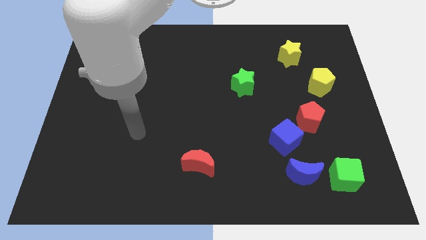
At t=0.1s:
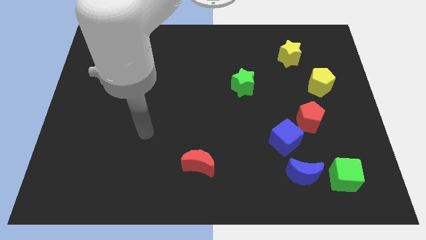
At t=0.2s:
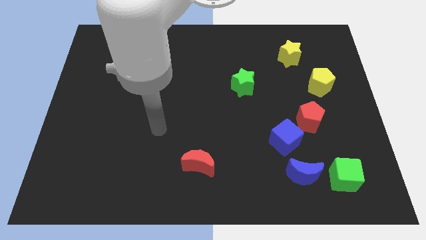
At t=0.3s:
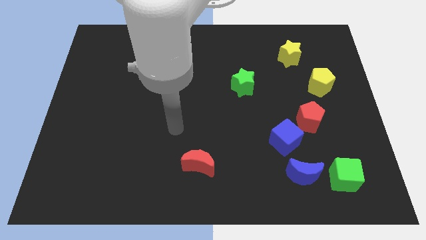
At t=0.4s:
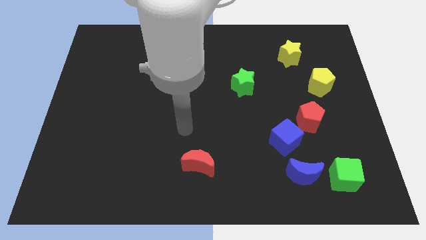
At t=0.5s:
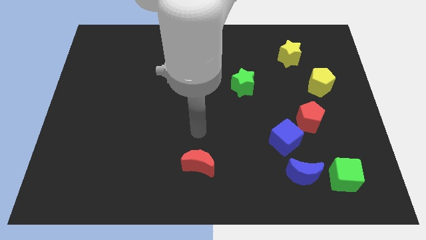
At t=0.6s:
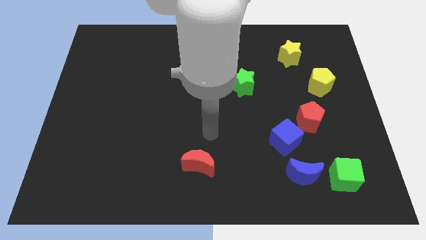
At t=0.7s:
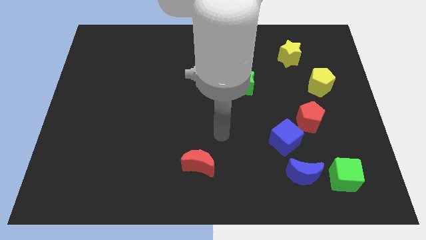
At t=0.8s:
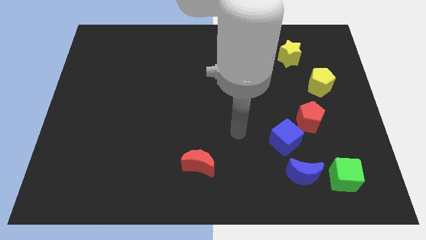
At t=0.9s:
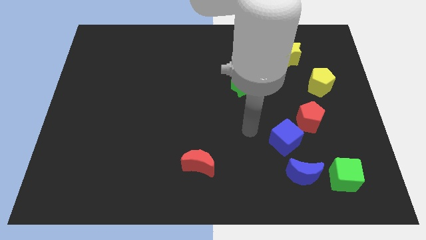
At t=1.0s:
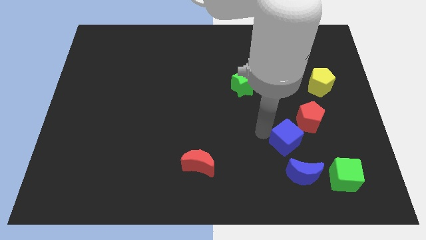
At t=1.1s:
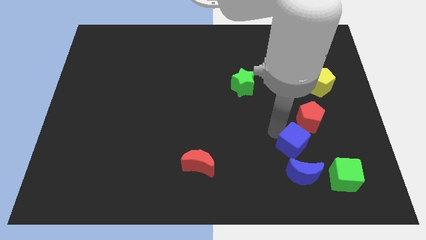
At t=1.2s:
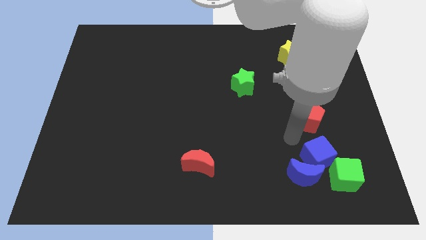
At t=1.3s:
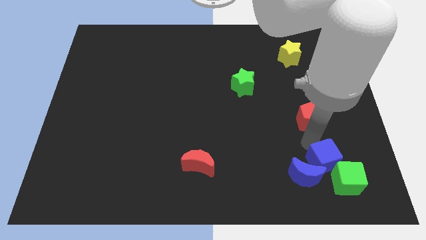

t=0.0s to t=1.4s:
separate the red pentagon from the blue cube

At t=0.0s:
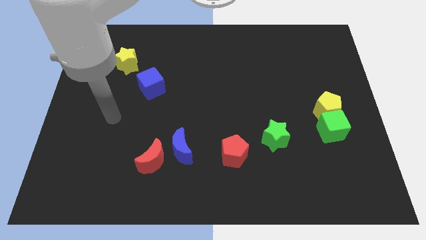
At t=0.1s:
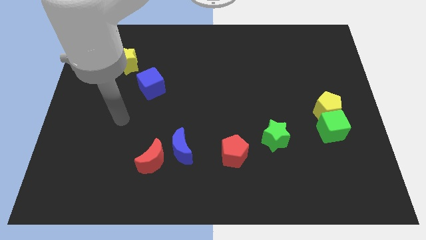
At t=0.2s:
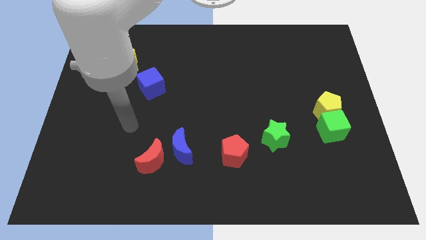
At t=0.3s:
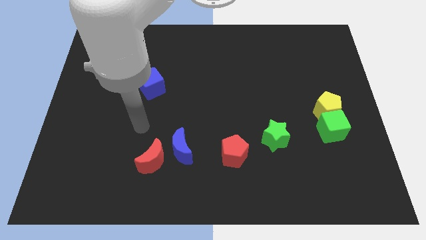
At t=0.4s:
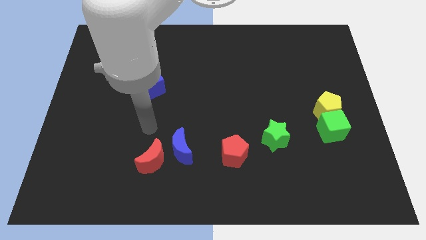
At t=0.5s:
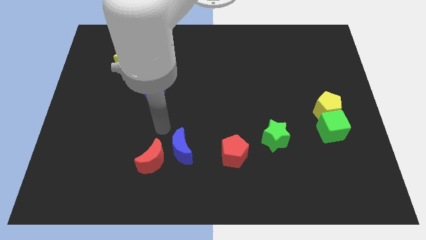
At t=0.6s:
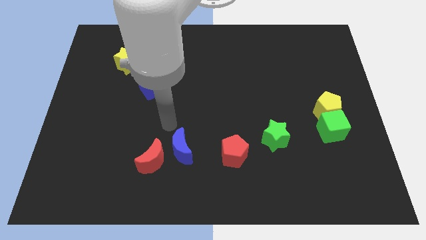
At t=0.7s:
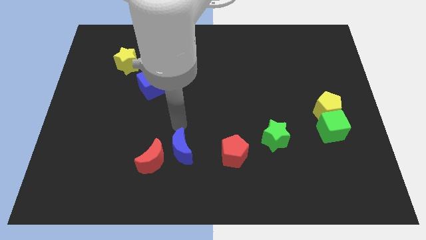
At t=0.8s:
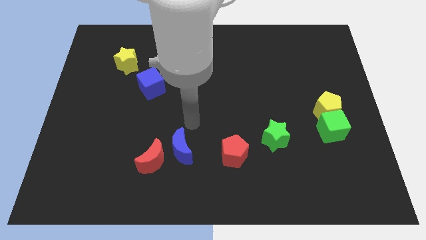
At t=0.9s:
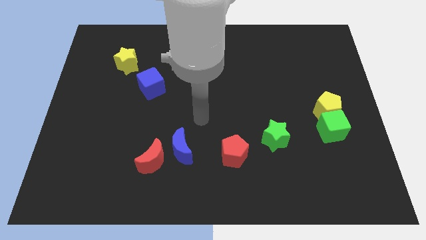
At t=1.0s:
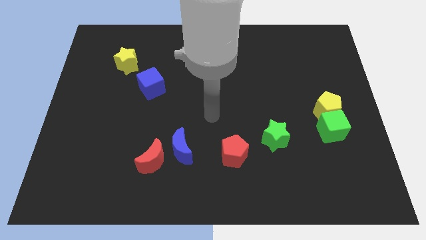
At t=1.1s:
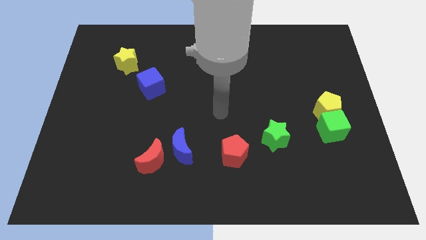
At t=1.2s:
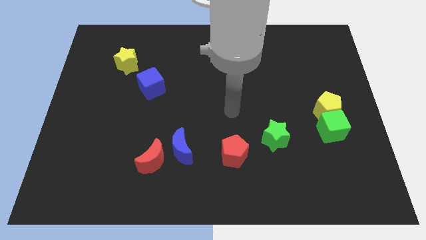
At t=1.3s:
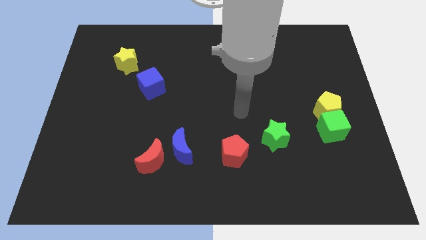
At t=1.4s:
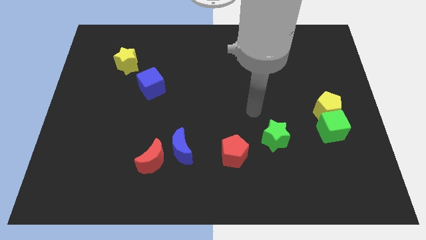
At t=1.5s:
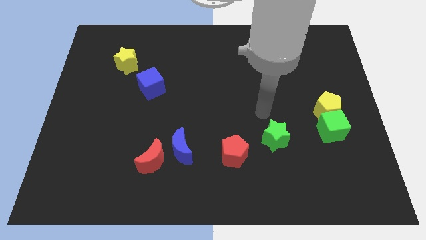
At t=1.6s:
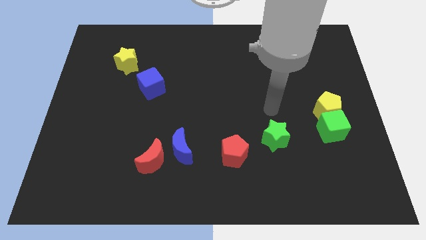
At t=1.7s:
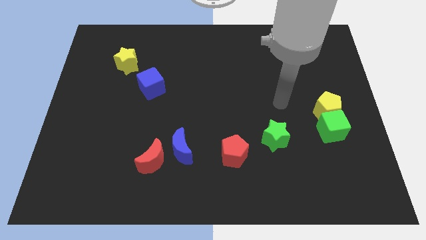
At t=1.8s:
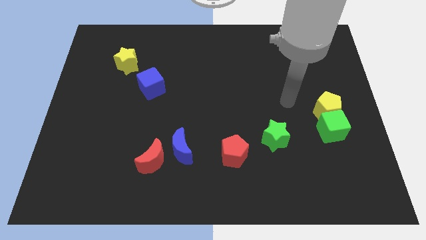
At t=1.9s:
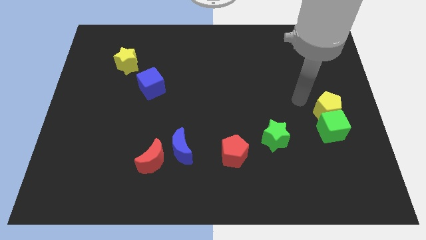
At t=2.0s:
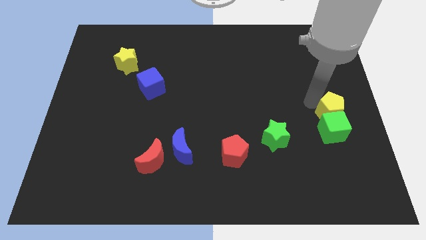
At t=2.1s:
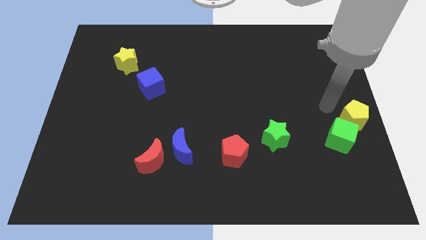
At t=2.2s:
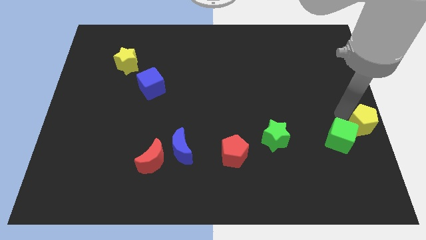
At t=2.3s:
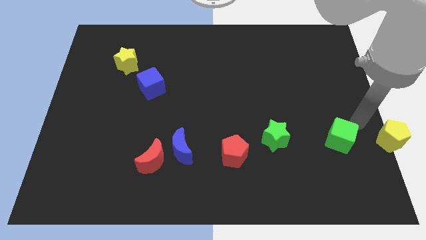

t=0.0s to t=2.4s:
move the green cube away from the yellow pentagon

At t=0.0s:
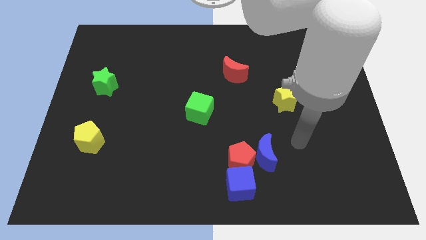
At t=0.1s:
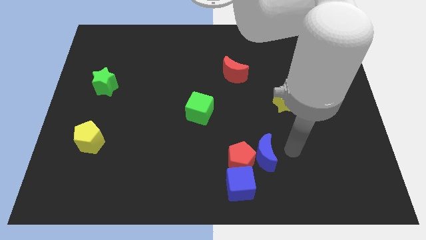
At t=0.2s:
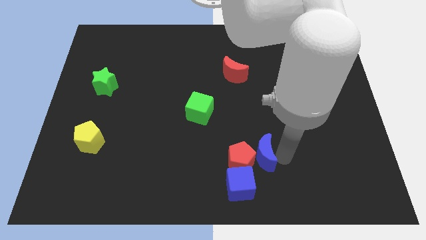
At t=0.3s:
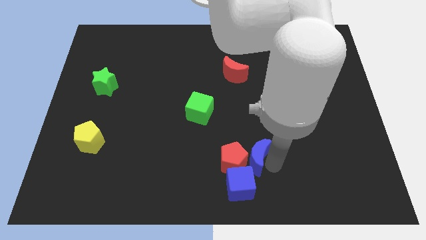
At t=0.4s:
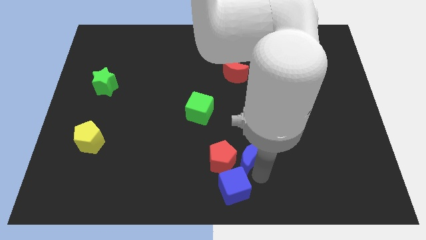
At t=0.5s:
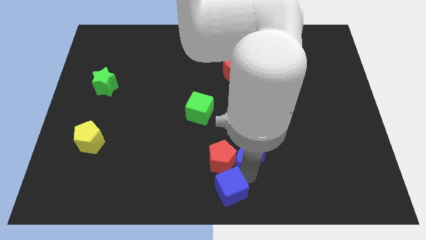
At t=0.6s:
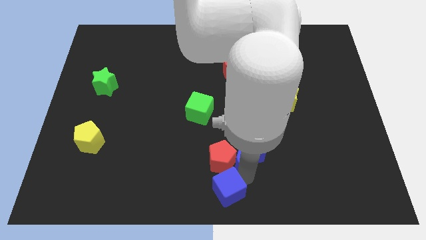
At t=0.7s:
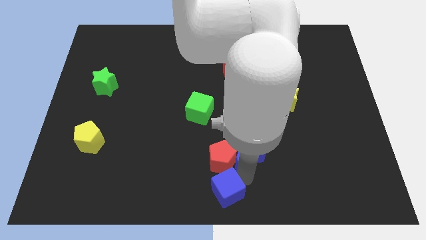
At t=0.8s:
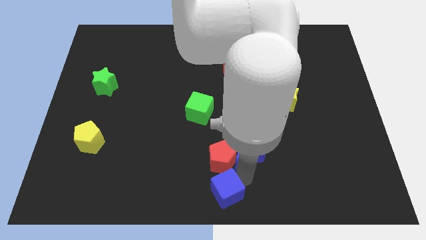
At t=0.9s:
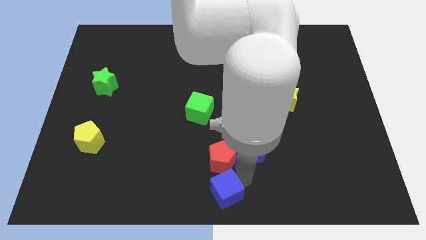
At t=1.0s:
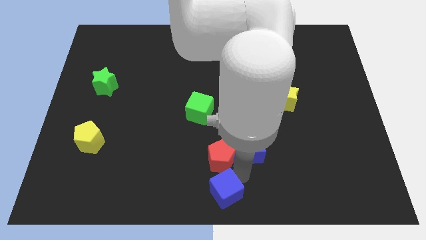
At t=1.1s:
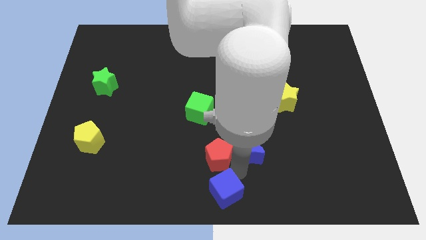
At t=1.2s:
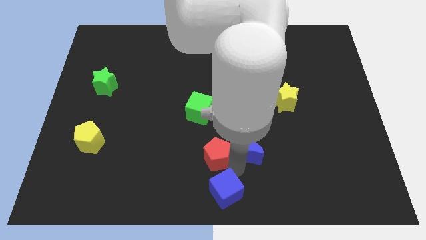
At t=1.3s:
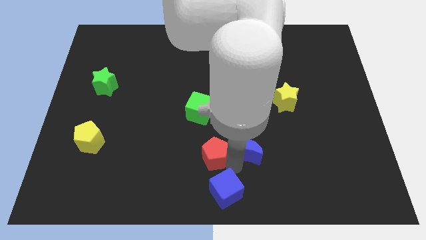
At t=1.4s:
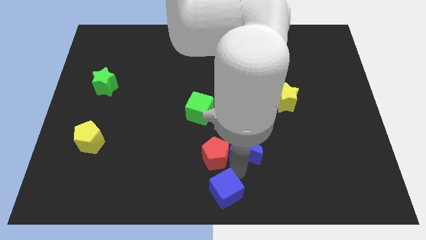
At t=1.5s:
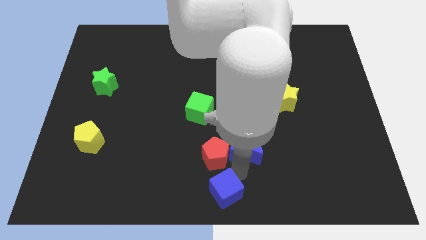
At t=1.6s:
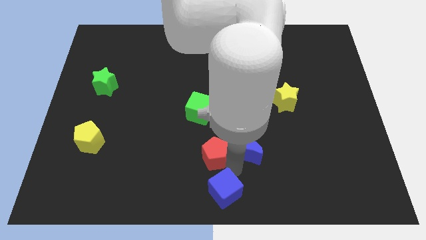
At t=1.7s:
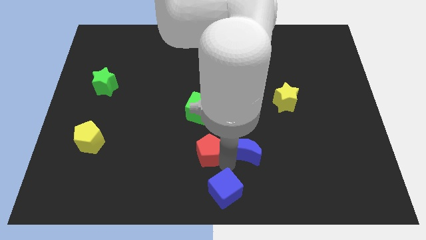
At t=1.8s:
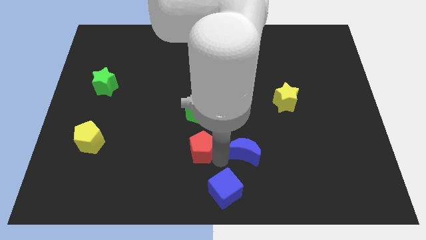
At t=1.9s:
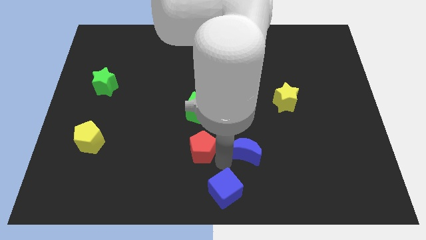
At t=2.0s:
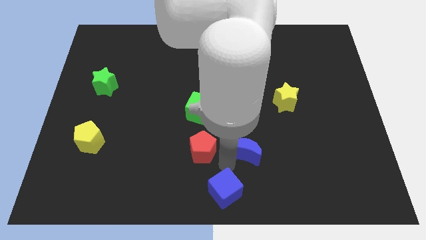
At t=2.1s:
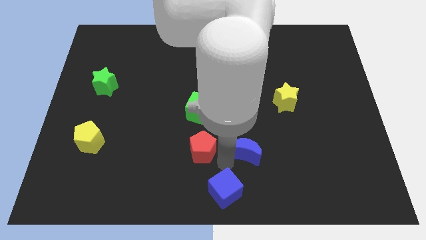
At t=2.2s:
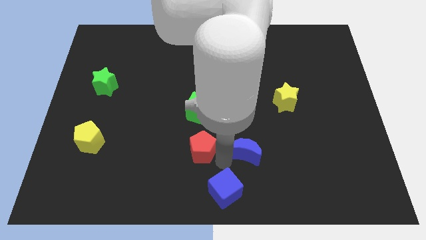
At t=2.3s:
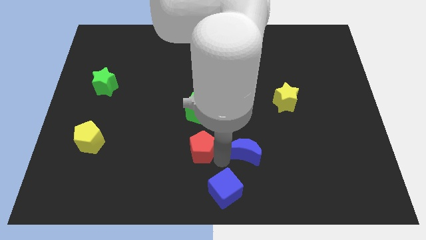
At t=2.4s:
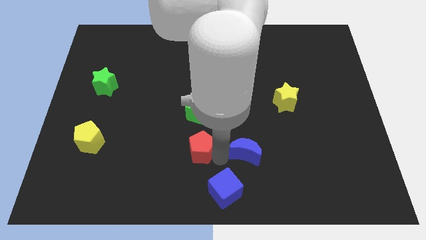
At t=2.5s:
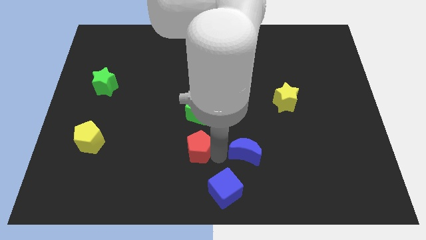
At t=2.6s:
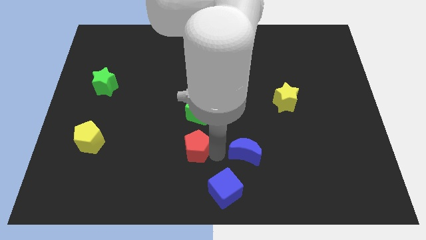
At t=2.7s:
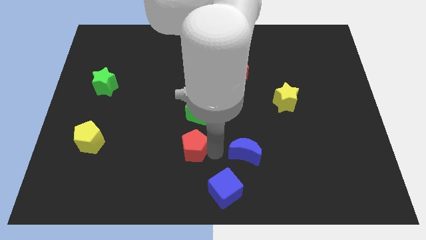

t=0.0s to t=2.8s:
pull the red pentagon apart from the blue moon and blue cube

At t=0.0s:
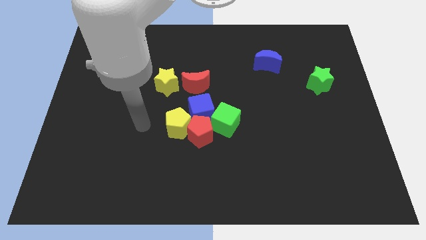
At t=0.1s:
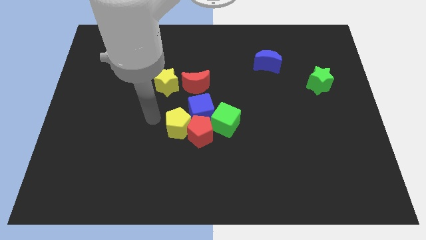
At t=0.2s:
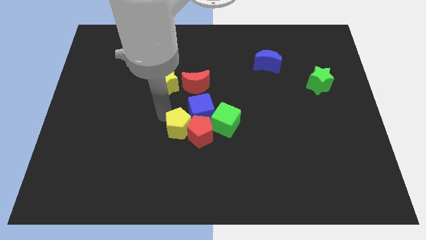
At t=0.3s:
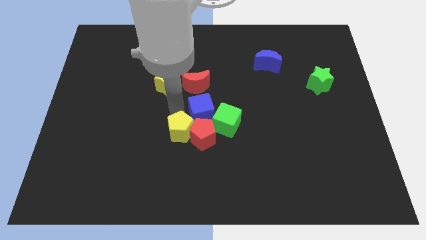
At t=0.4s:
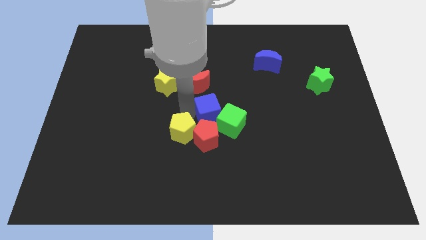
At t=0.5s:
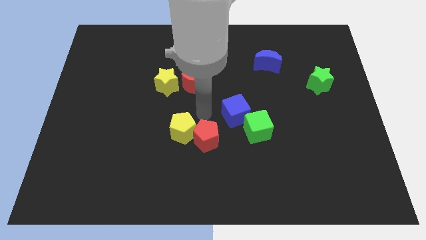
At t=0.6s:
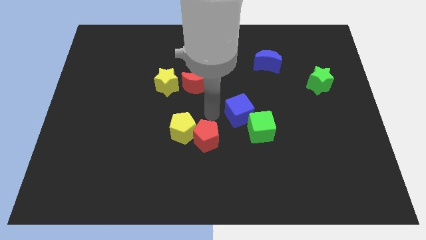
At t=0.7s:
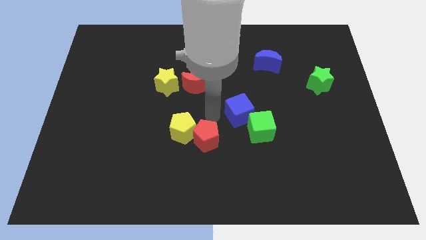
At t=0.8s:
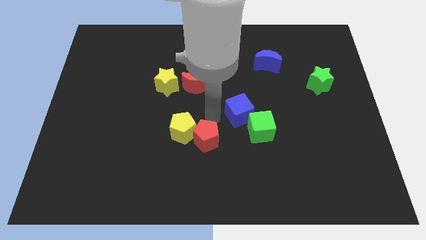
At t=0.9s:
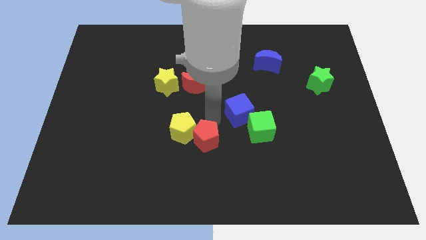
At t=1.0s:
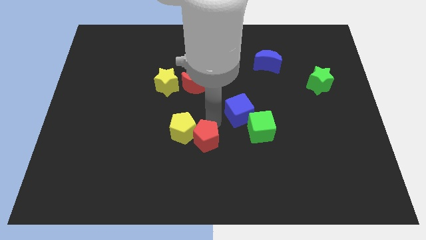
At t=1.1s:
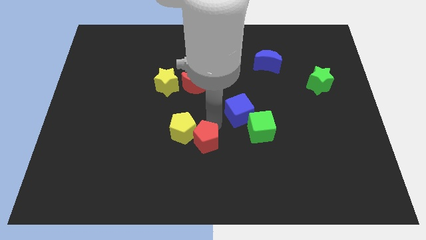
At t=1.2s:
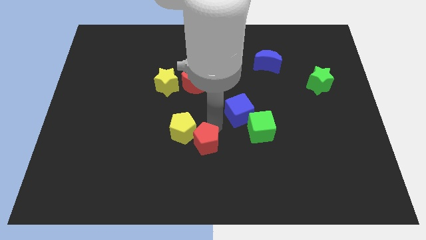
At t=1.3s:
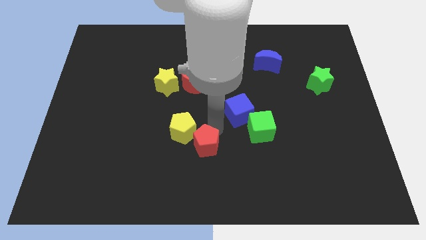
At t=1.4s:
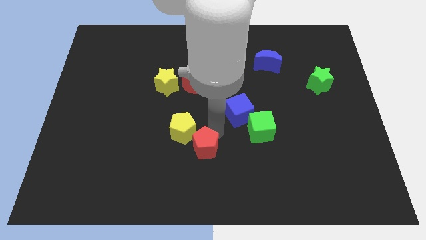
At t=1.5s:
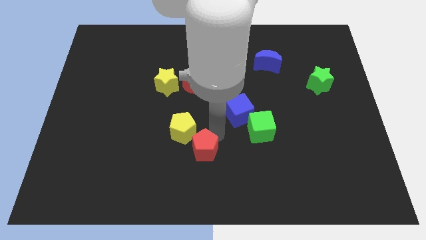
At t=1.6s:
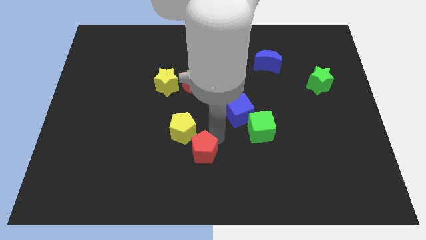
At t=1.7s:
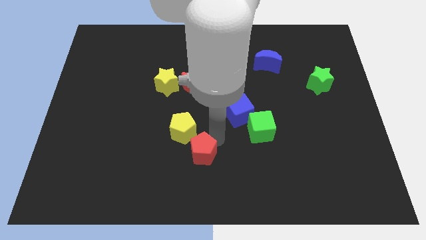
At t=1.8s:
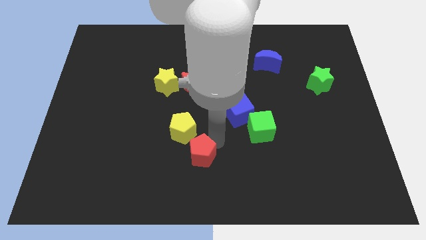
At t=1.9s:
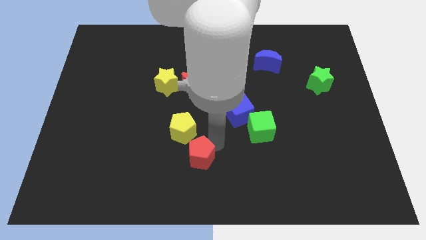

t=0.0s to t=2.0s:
separate the red pentagon from the clump

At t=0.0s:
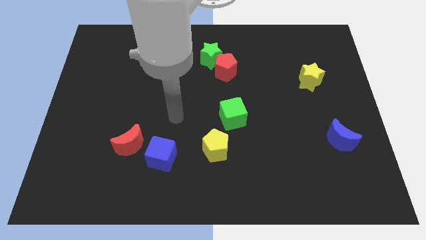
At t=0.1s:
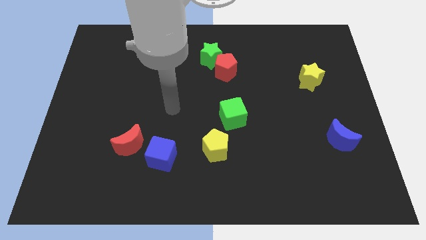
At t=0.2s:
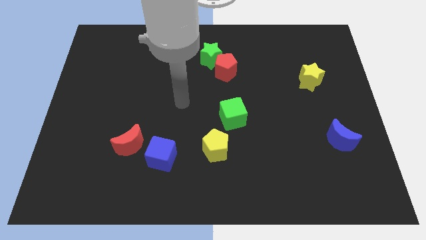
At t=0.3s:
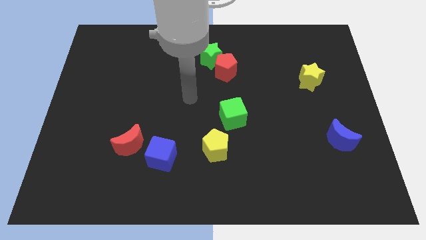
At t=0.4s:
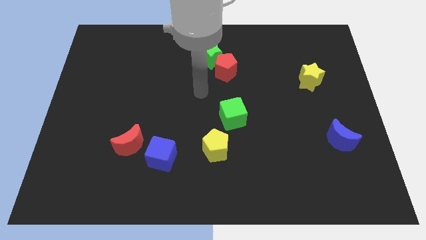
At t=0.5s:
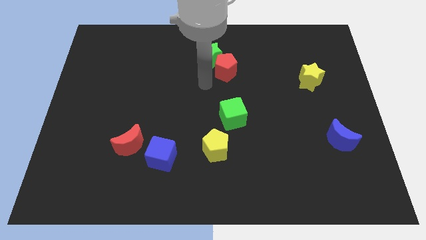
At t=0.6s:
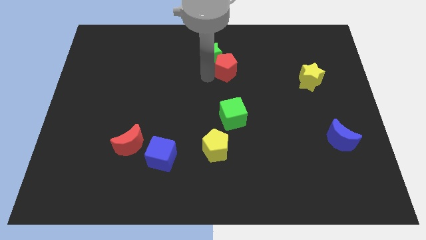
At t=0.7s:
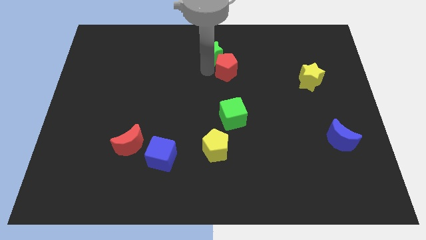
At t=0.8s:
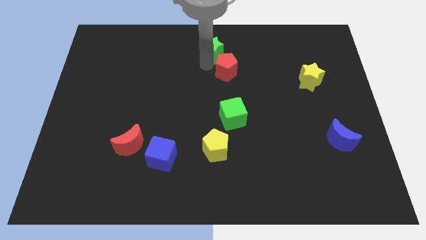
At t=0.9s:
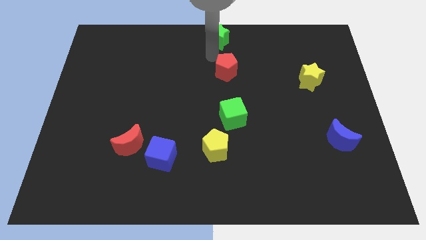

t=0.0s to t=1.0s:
move the red pentagon away from the green star
